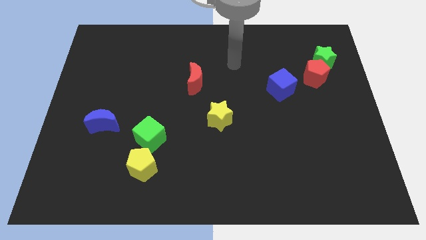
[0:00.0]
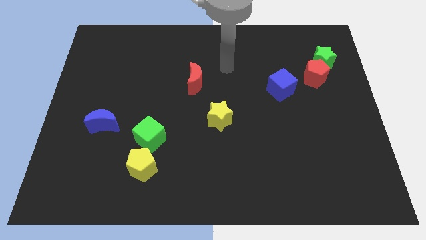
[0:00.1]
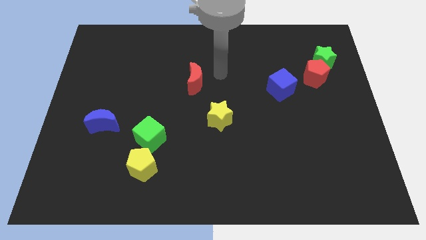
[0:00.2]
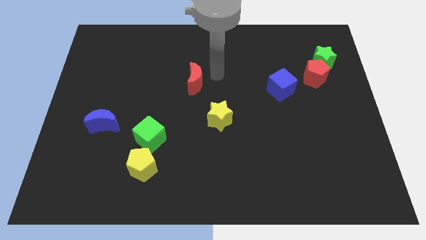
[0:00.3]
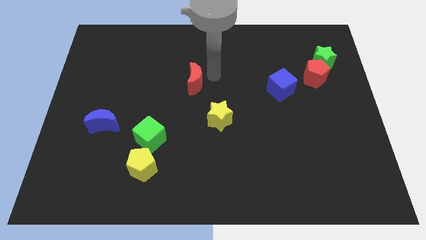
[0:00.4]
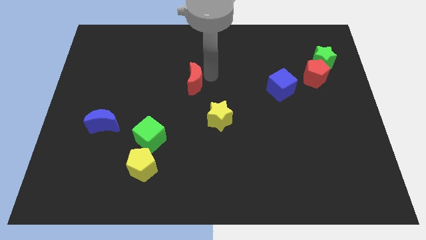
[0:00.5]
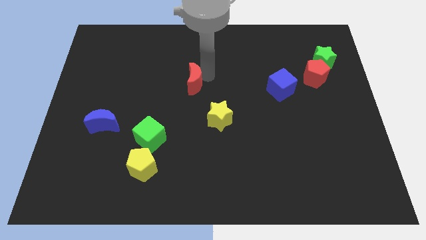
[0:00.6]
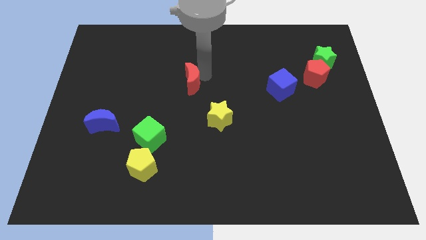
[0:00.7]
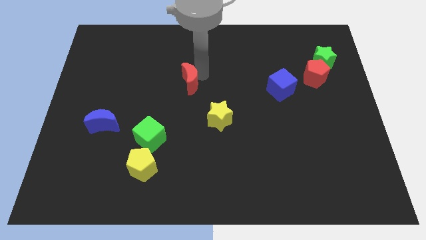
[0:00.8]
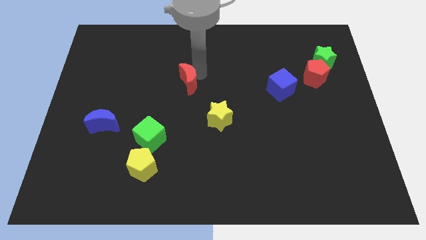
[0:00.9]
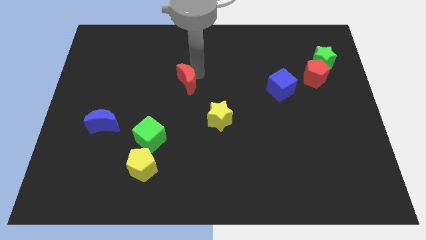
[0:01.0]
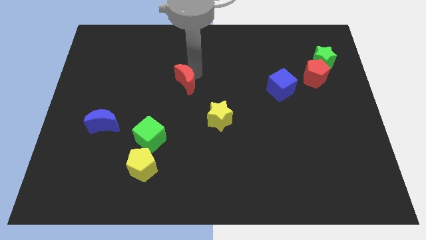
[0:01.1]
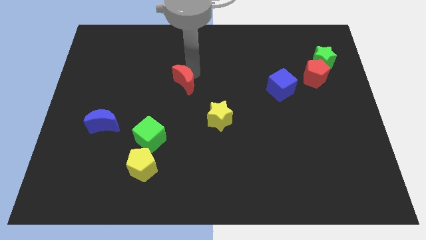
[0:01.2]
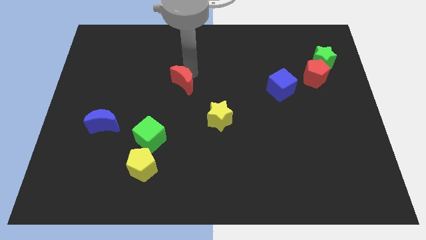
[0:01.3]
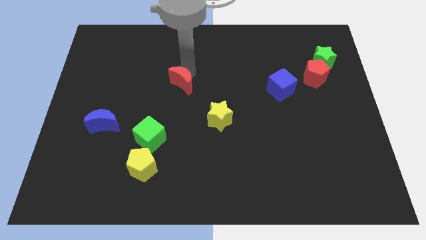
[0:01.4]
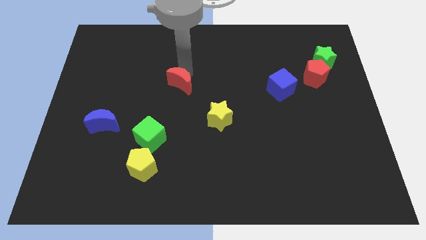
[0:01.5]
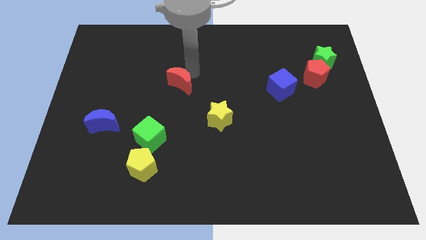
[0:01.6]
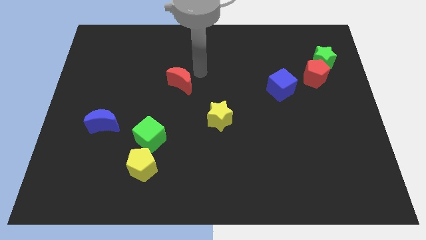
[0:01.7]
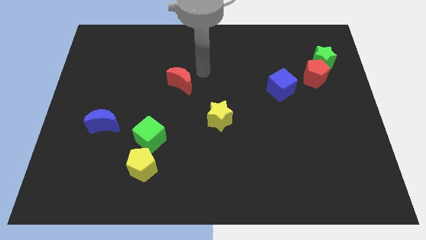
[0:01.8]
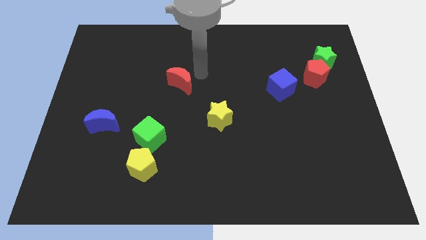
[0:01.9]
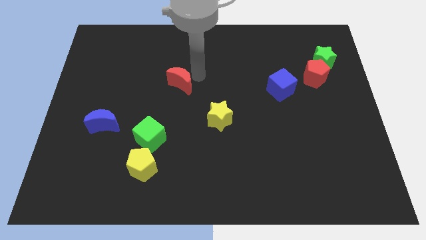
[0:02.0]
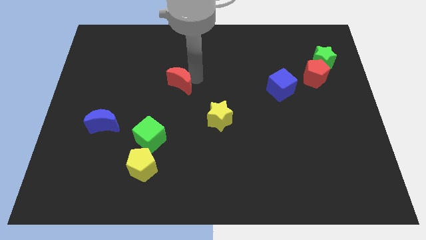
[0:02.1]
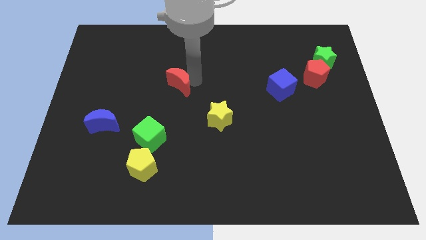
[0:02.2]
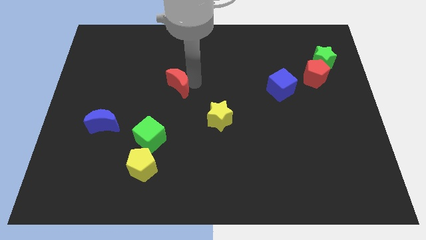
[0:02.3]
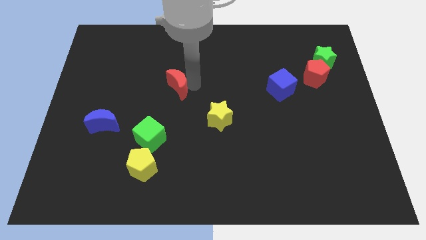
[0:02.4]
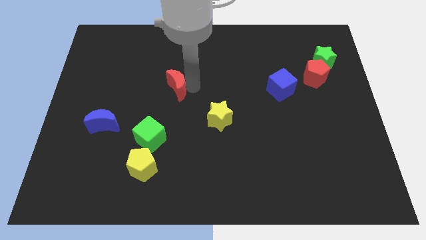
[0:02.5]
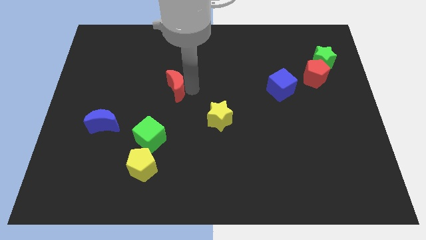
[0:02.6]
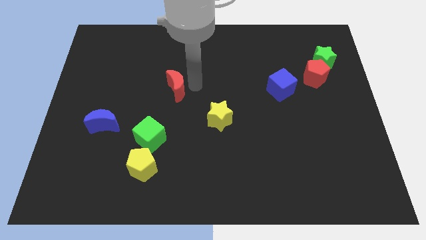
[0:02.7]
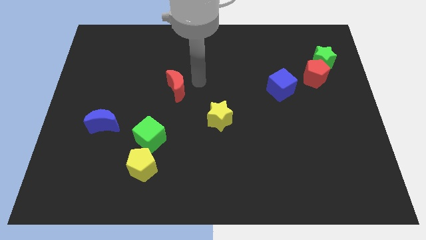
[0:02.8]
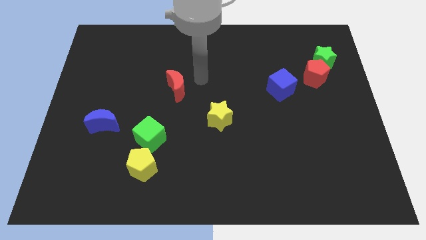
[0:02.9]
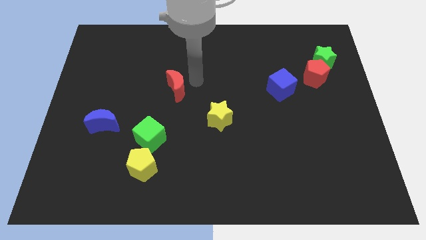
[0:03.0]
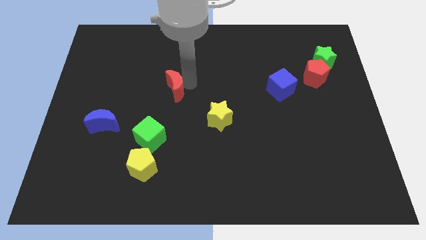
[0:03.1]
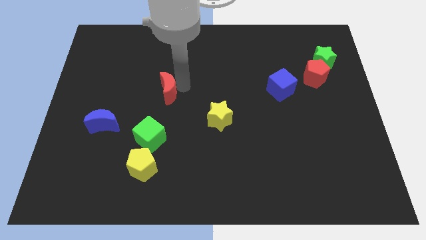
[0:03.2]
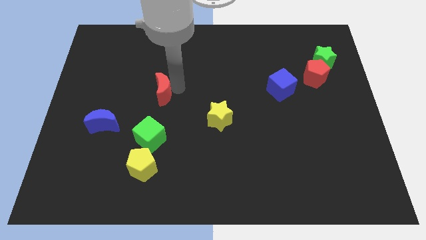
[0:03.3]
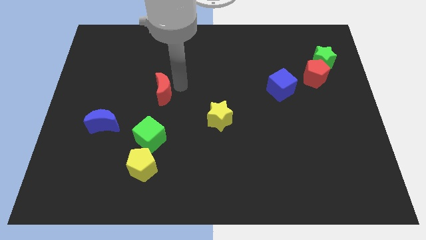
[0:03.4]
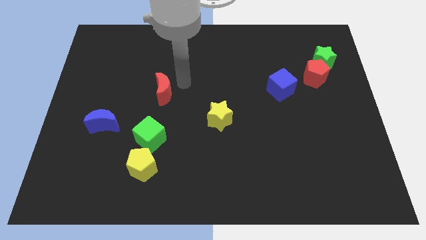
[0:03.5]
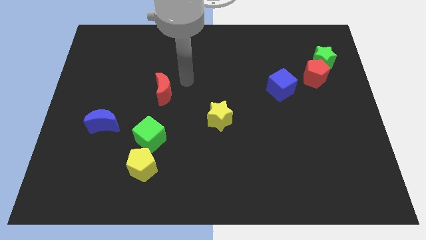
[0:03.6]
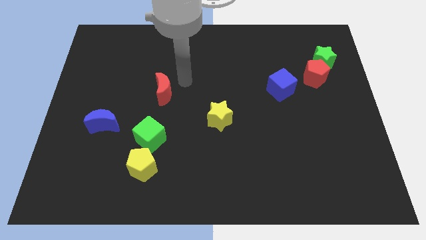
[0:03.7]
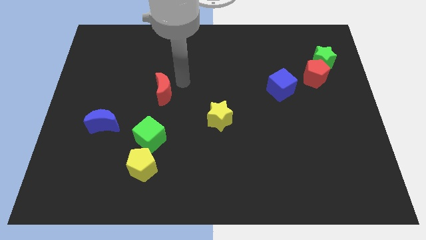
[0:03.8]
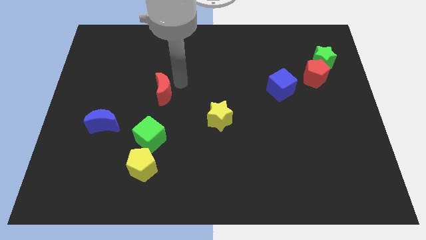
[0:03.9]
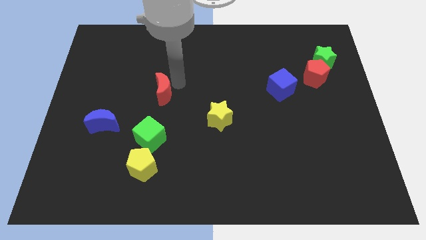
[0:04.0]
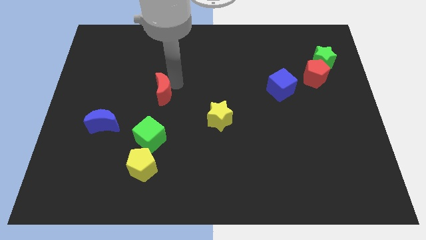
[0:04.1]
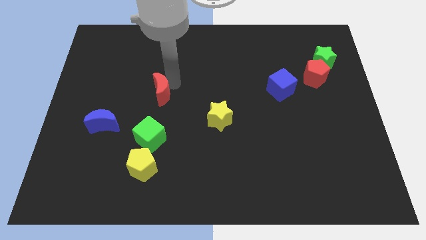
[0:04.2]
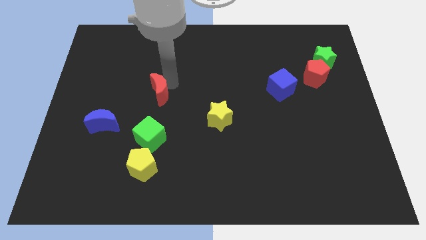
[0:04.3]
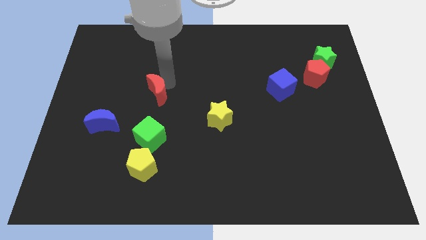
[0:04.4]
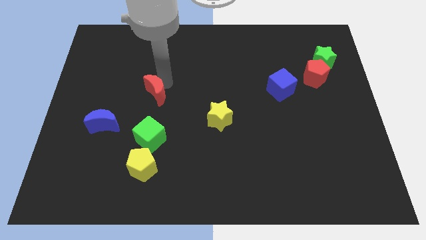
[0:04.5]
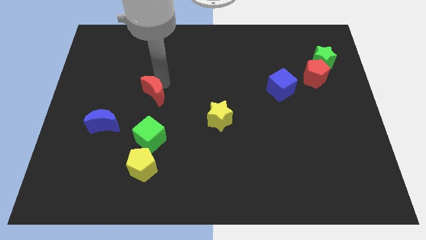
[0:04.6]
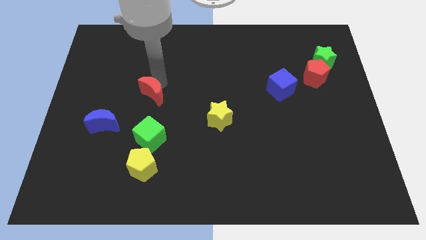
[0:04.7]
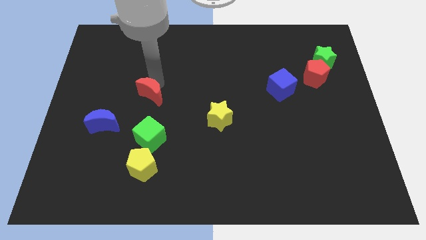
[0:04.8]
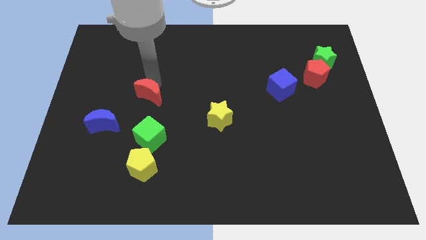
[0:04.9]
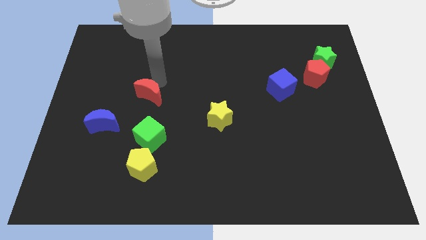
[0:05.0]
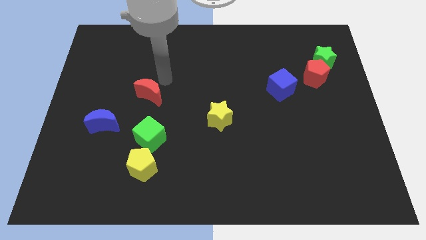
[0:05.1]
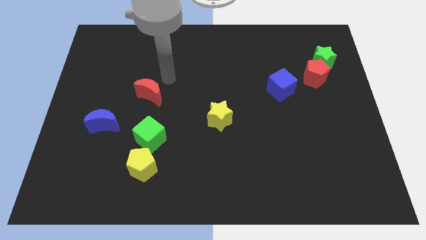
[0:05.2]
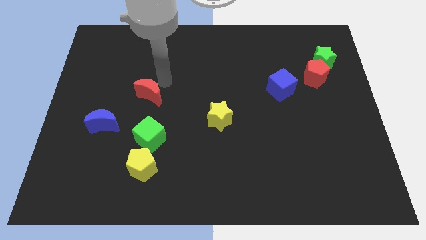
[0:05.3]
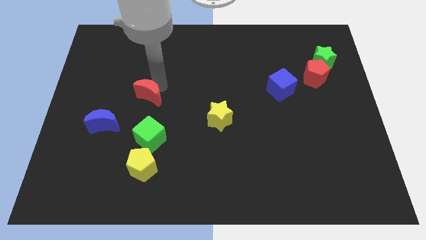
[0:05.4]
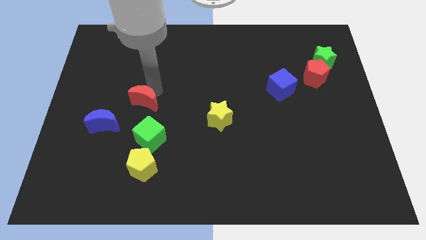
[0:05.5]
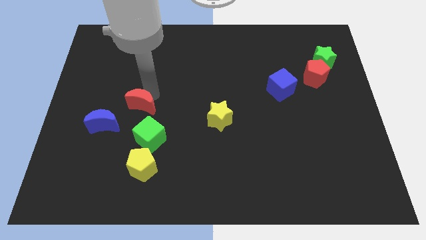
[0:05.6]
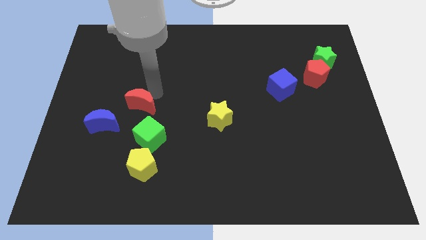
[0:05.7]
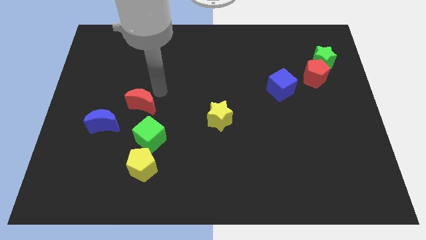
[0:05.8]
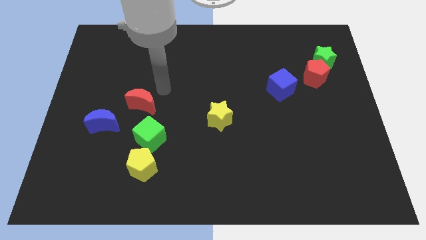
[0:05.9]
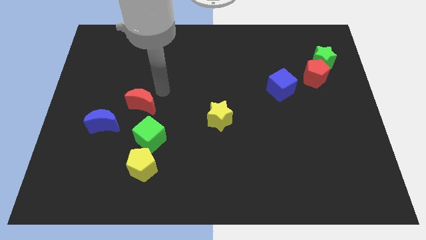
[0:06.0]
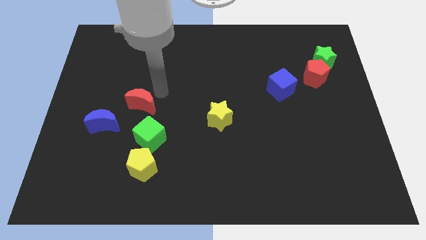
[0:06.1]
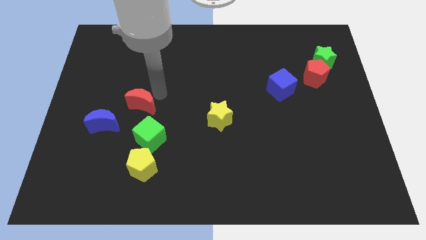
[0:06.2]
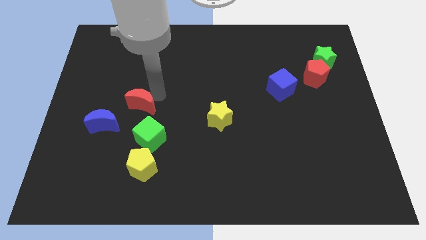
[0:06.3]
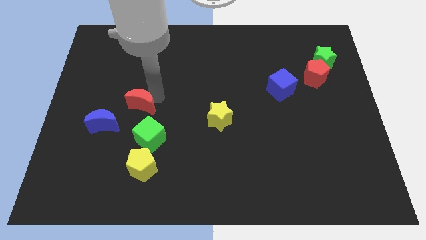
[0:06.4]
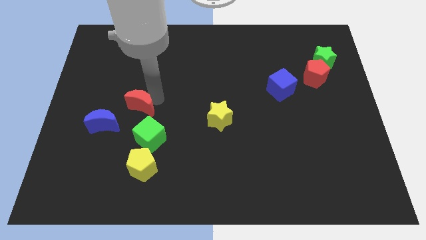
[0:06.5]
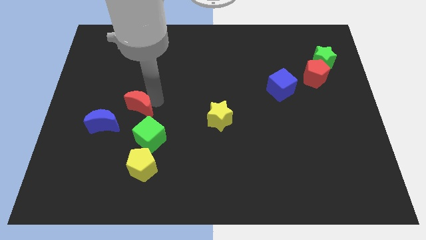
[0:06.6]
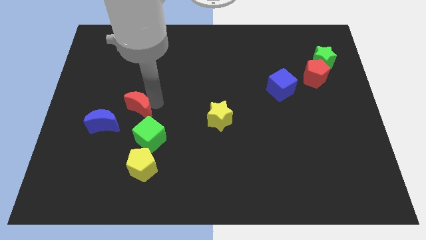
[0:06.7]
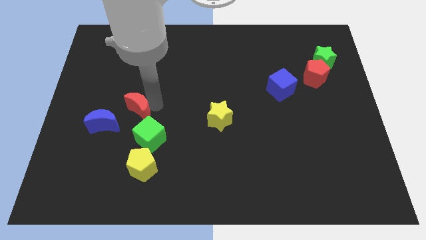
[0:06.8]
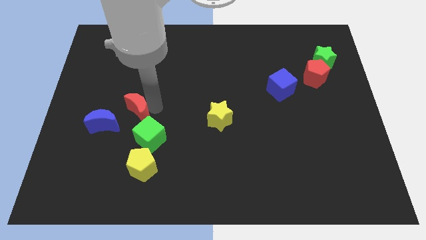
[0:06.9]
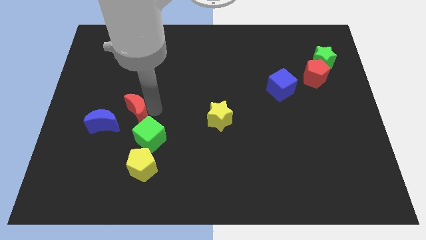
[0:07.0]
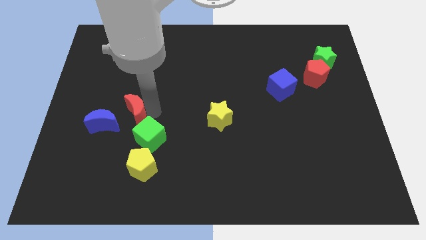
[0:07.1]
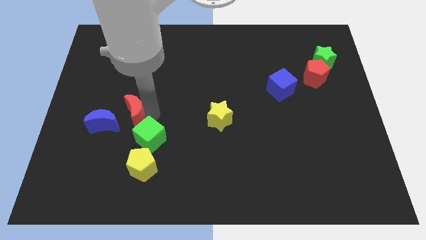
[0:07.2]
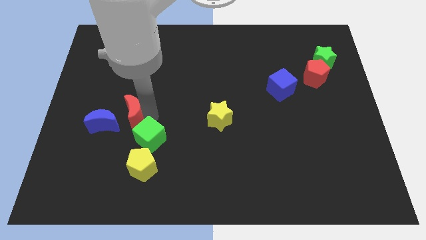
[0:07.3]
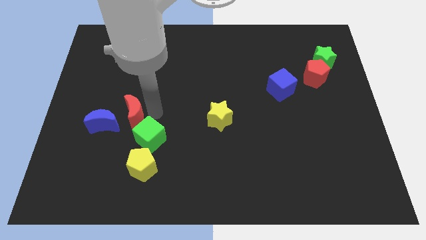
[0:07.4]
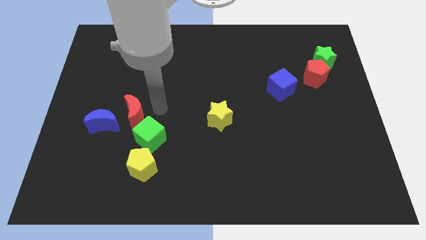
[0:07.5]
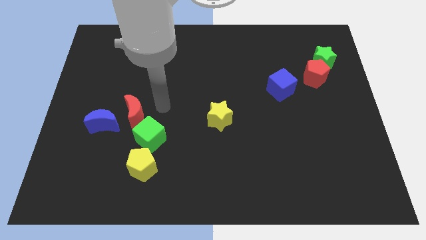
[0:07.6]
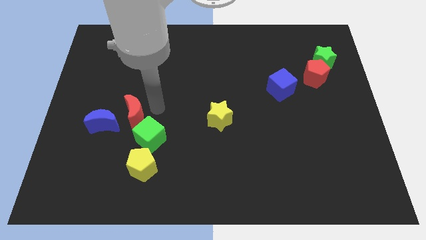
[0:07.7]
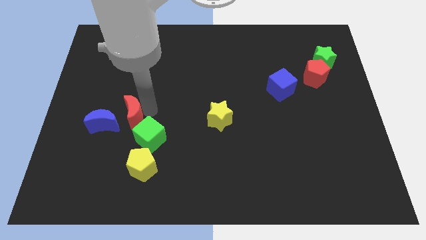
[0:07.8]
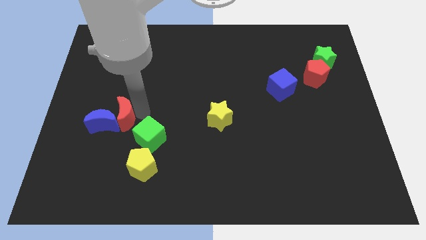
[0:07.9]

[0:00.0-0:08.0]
slide the red moon to the blue moon

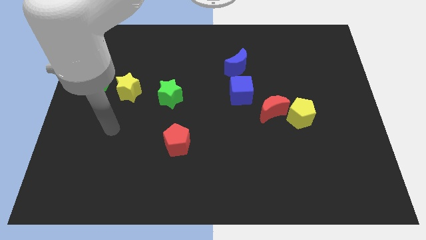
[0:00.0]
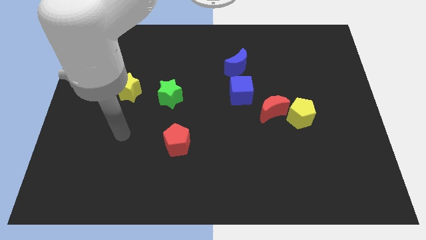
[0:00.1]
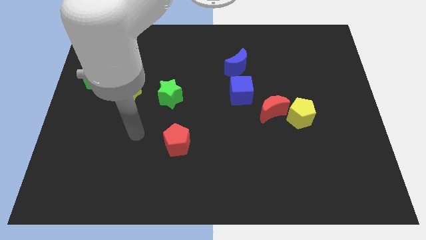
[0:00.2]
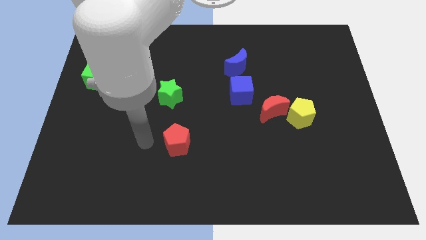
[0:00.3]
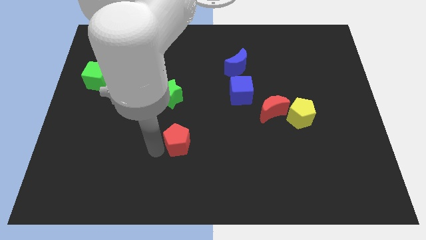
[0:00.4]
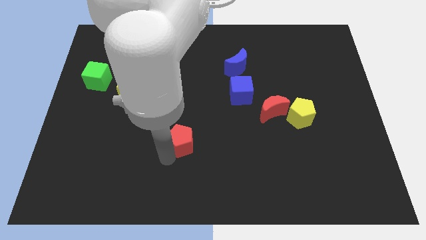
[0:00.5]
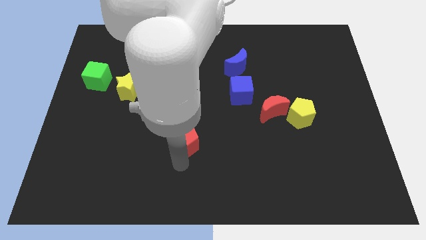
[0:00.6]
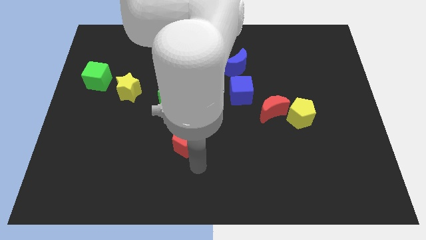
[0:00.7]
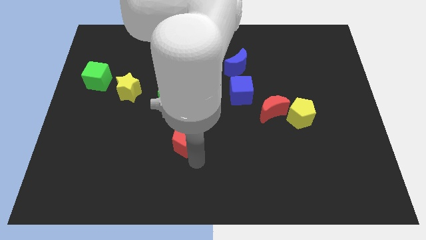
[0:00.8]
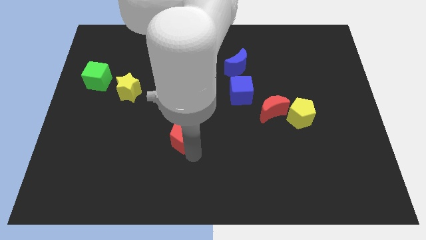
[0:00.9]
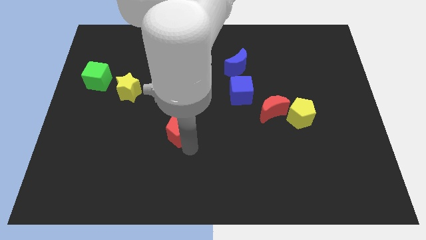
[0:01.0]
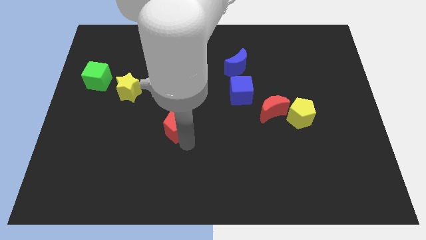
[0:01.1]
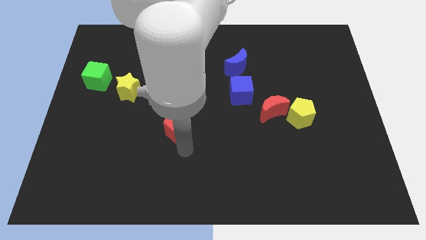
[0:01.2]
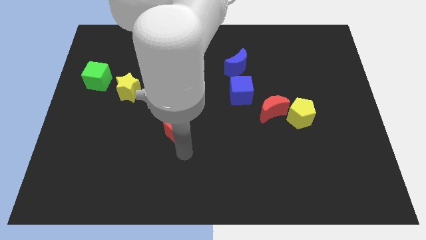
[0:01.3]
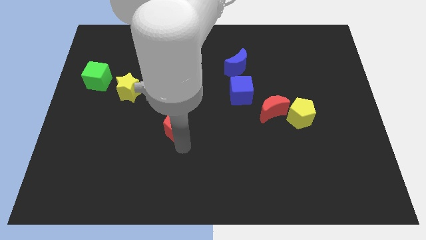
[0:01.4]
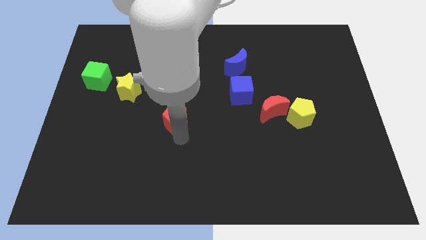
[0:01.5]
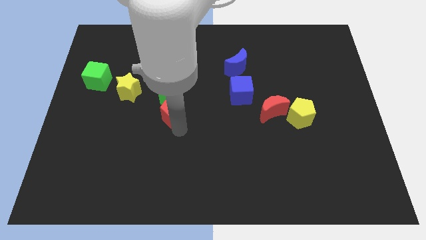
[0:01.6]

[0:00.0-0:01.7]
push the red pentagon towards the green star
